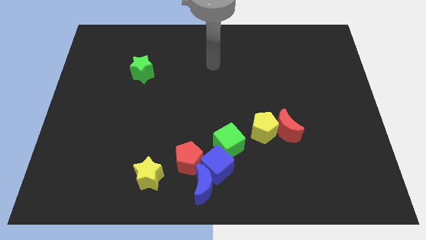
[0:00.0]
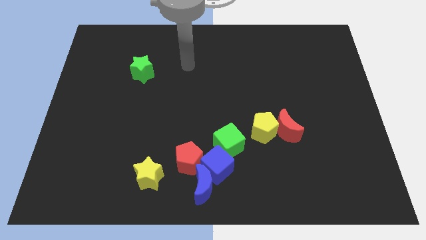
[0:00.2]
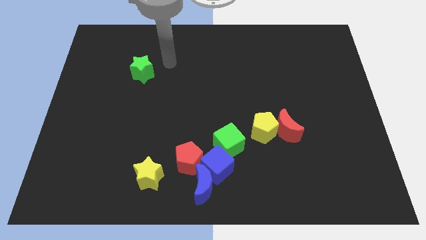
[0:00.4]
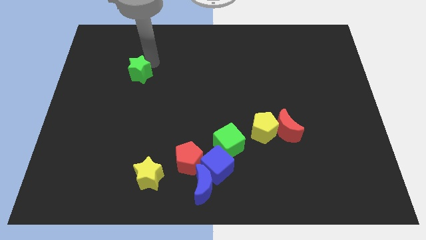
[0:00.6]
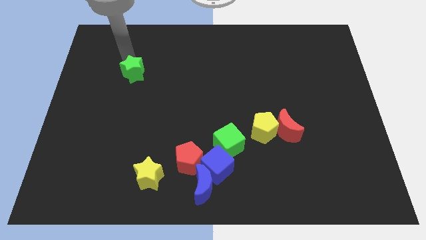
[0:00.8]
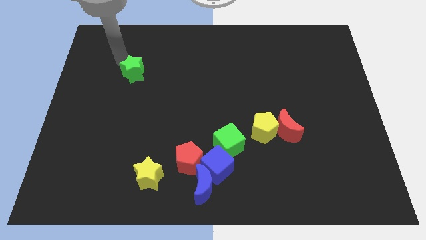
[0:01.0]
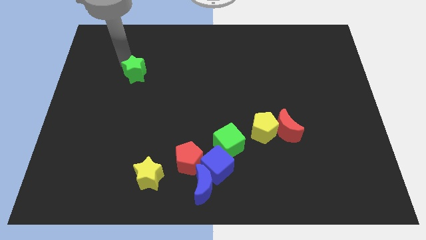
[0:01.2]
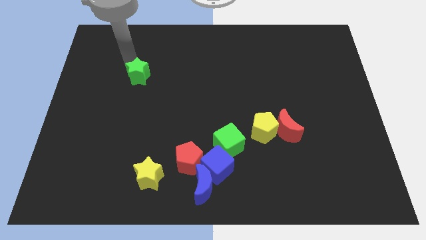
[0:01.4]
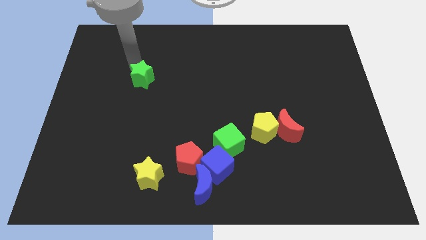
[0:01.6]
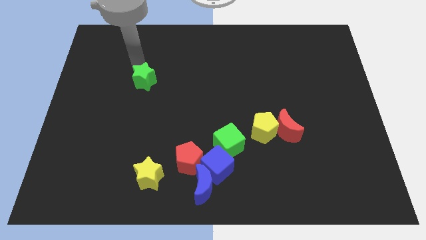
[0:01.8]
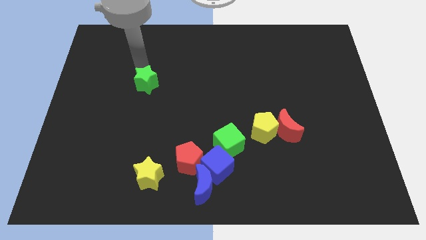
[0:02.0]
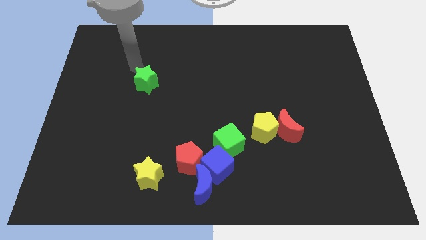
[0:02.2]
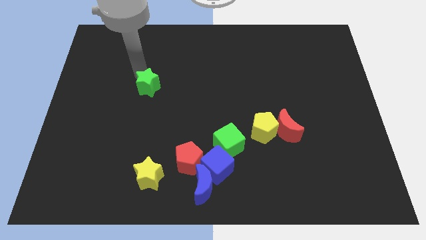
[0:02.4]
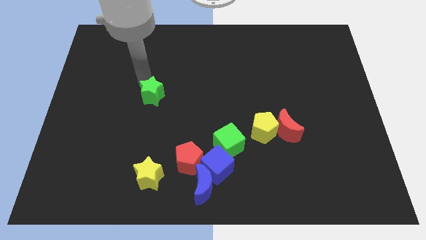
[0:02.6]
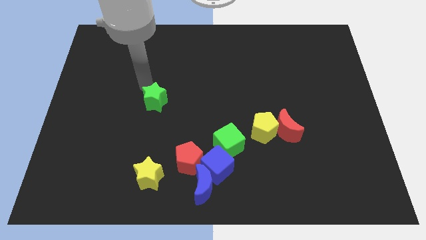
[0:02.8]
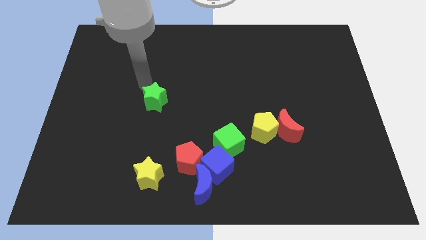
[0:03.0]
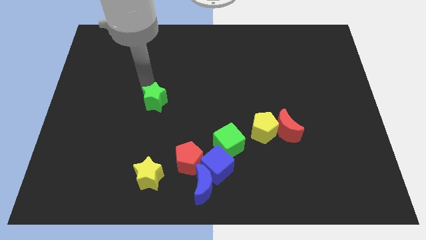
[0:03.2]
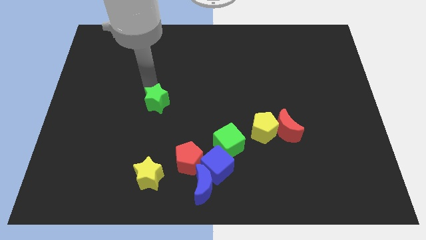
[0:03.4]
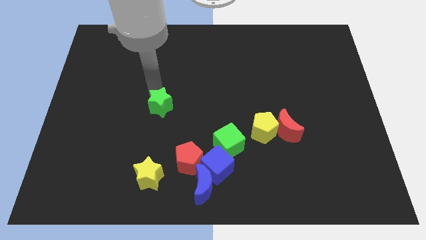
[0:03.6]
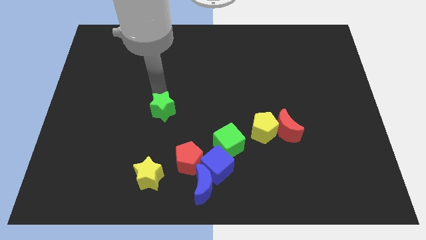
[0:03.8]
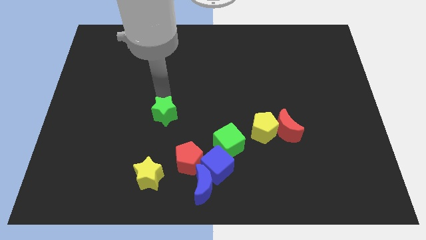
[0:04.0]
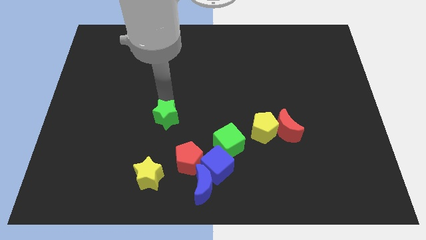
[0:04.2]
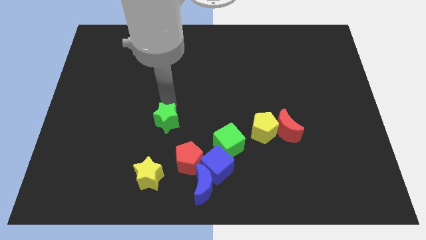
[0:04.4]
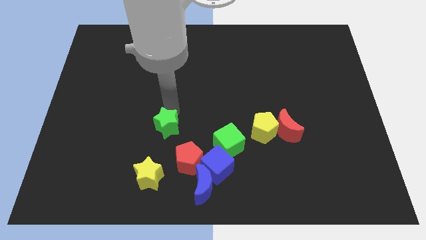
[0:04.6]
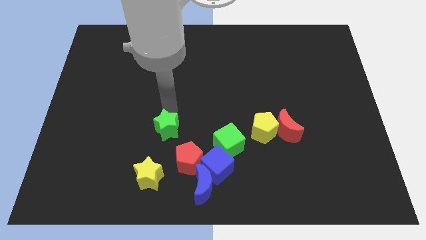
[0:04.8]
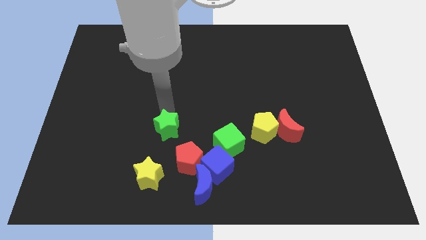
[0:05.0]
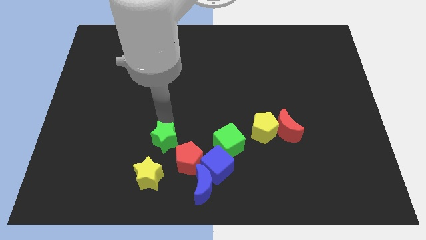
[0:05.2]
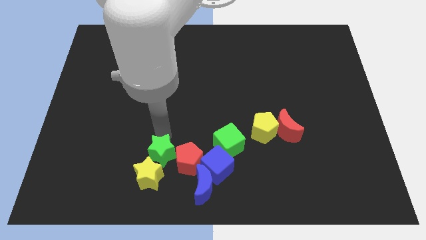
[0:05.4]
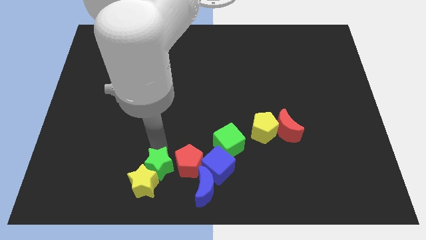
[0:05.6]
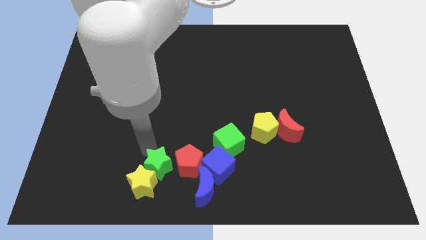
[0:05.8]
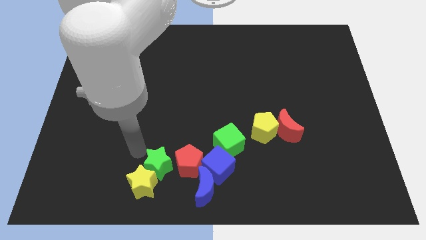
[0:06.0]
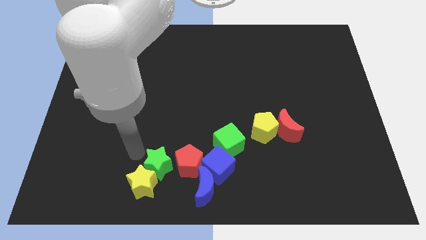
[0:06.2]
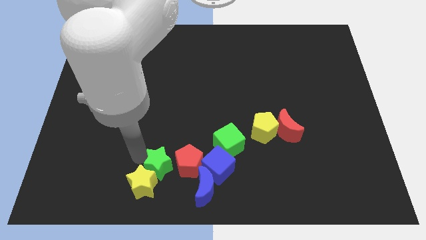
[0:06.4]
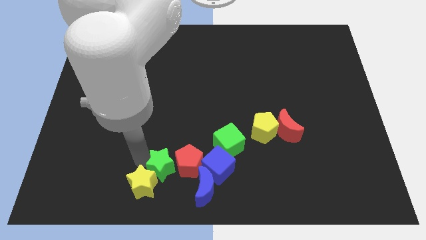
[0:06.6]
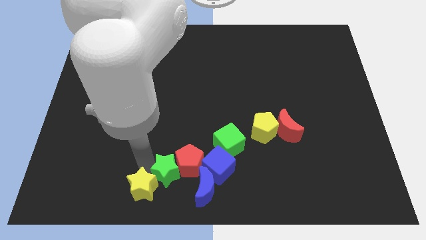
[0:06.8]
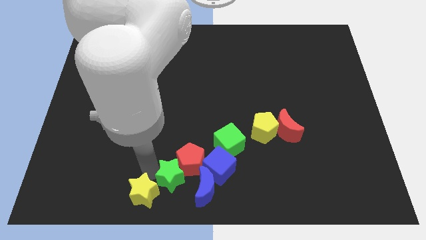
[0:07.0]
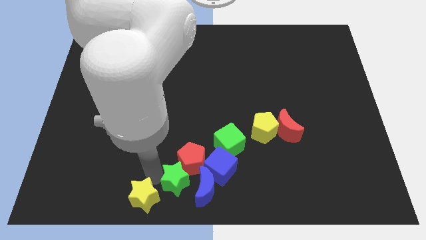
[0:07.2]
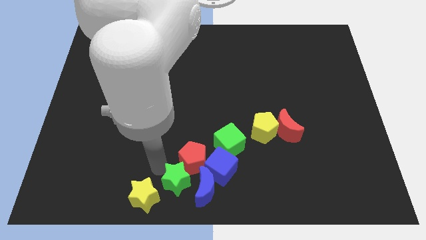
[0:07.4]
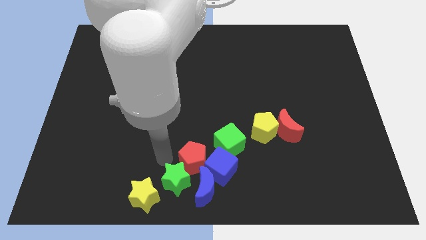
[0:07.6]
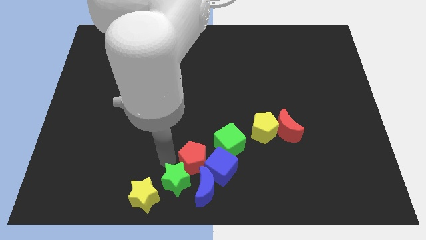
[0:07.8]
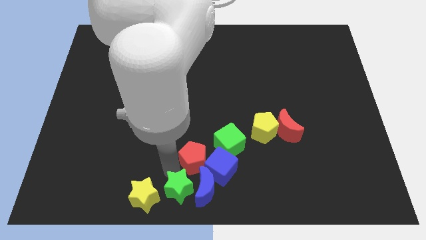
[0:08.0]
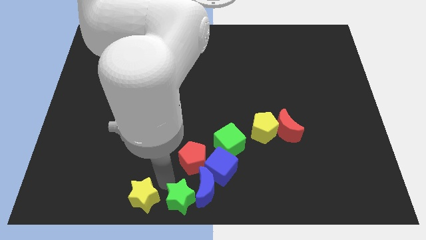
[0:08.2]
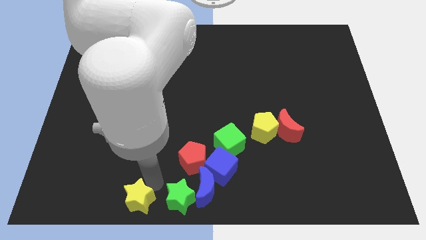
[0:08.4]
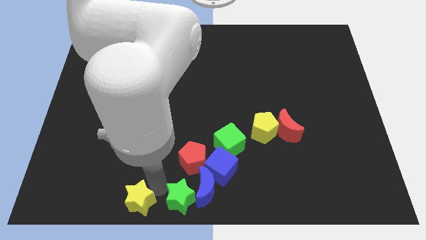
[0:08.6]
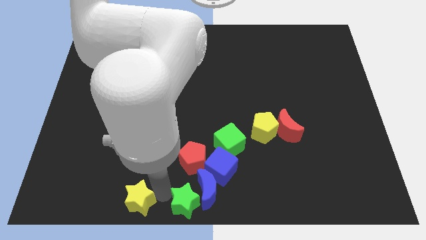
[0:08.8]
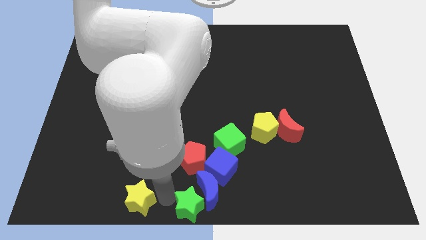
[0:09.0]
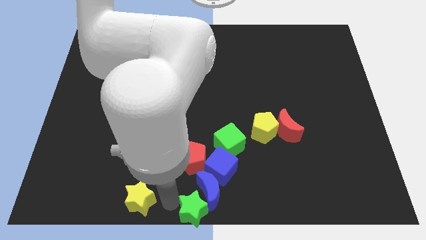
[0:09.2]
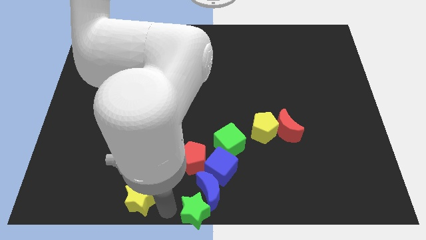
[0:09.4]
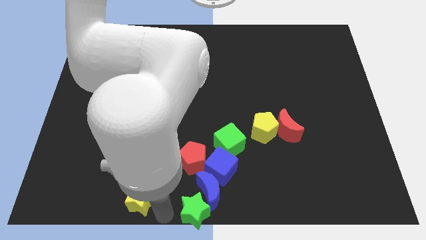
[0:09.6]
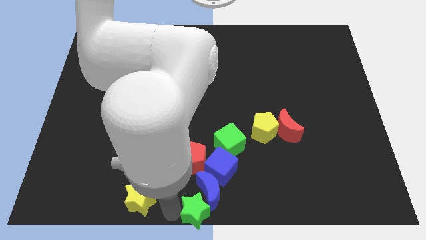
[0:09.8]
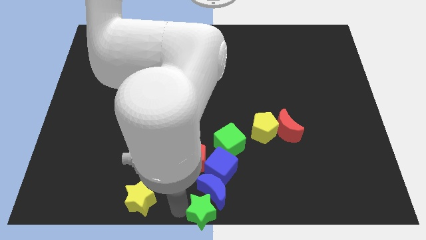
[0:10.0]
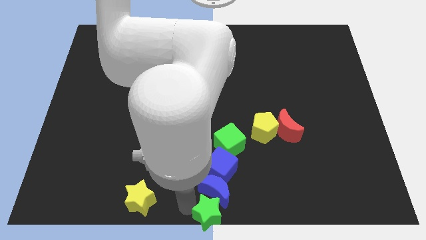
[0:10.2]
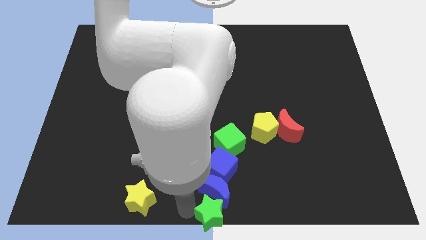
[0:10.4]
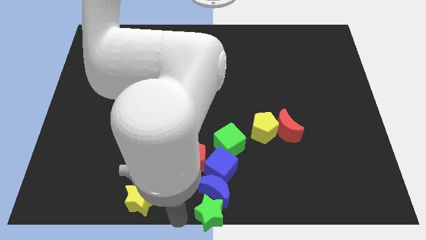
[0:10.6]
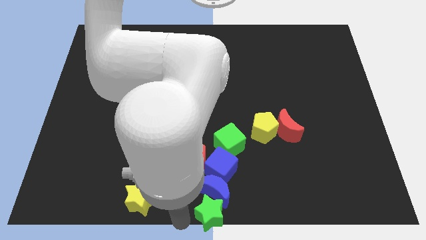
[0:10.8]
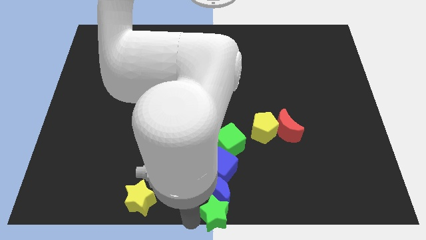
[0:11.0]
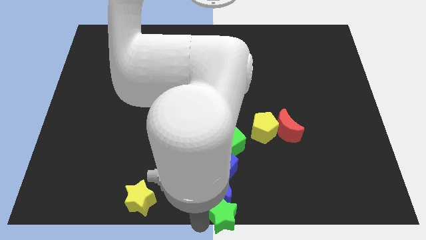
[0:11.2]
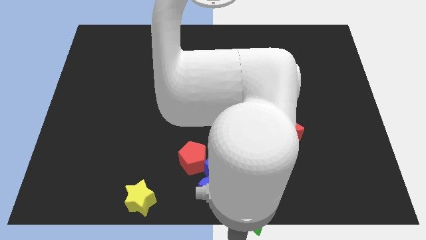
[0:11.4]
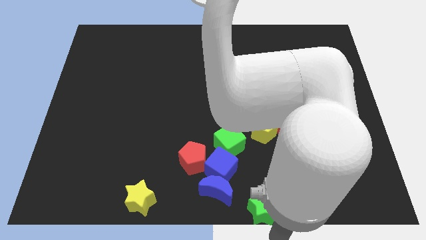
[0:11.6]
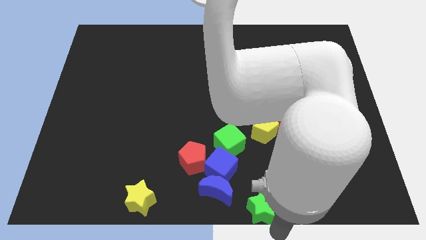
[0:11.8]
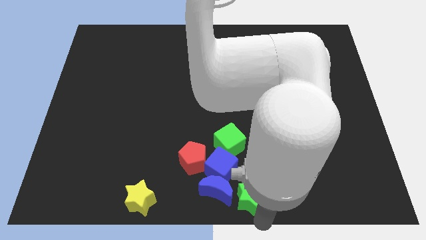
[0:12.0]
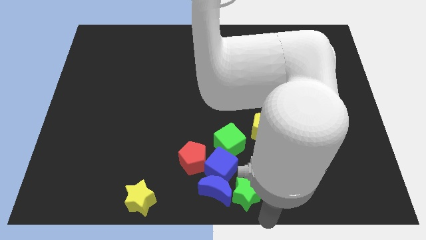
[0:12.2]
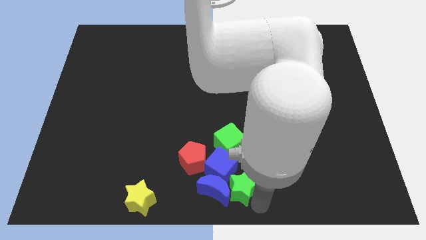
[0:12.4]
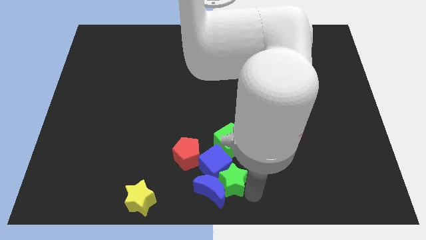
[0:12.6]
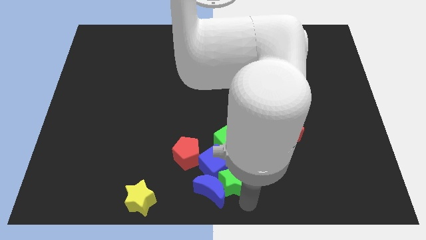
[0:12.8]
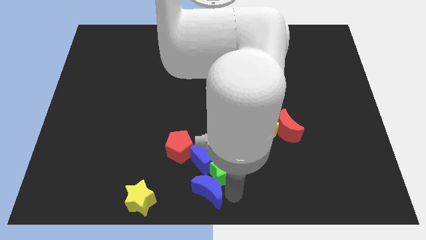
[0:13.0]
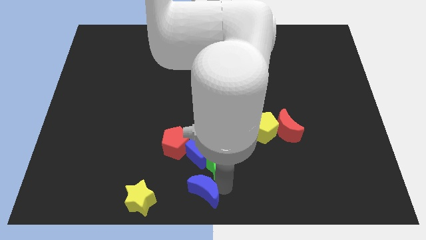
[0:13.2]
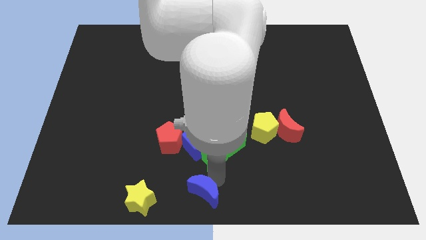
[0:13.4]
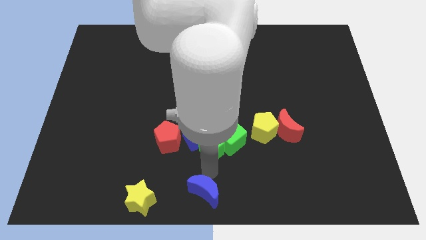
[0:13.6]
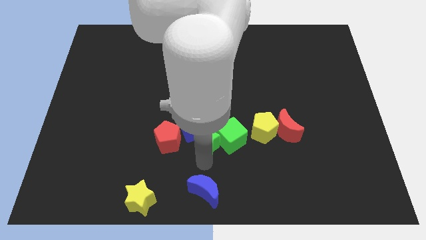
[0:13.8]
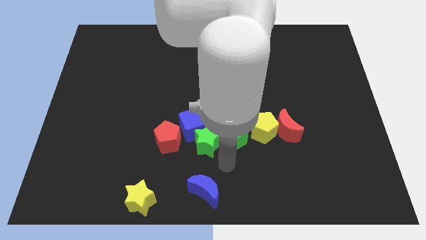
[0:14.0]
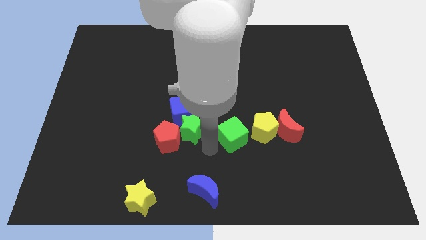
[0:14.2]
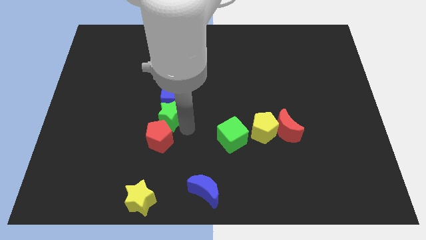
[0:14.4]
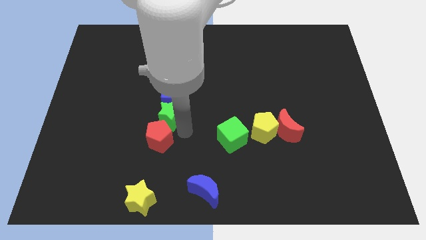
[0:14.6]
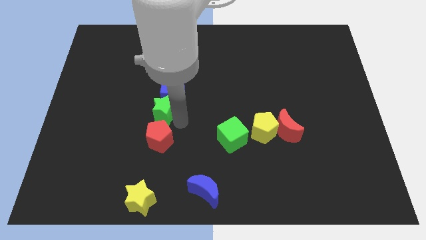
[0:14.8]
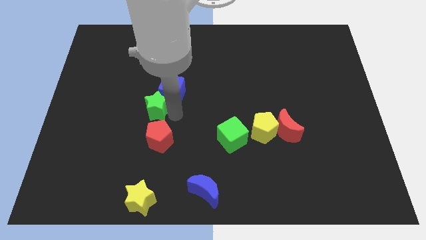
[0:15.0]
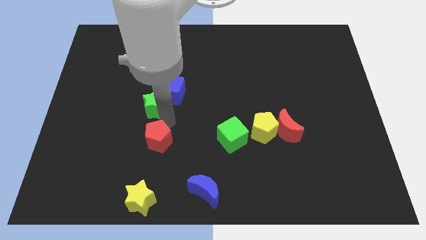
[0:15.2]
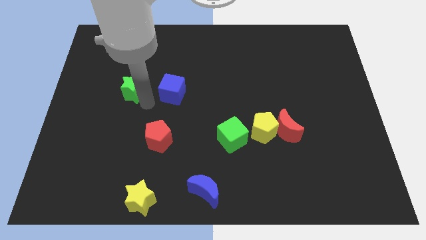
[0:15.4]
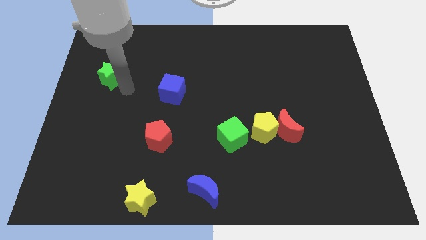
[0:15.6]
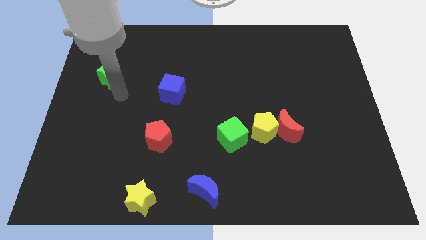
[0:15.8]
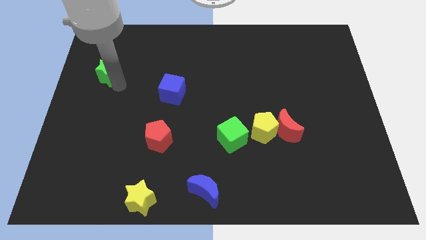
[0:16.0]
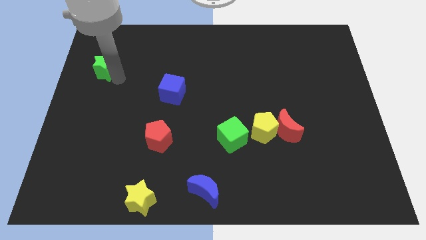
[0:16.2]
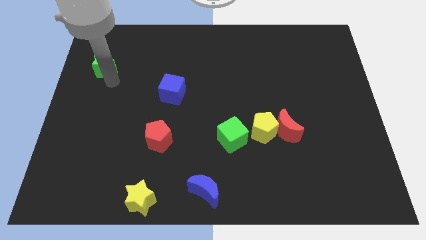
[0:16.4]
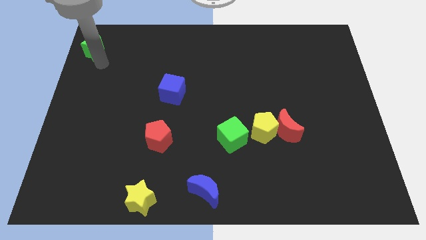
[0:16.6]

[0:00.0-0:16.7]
push the green star to the top left
